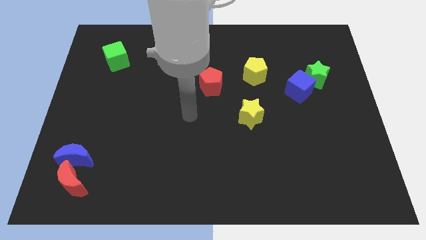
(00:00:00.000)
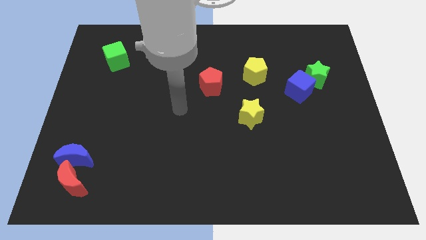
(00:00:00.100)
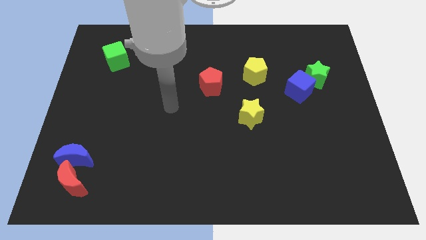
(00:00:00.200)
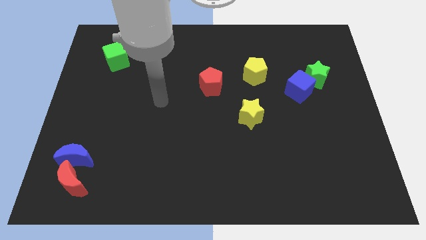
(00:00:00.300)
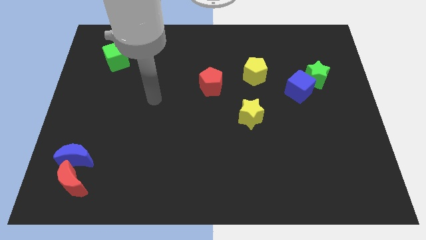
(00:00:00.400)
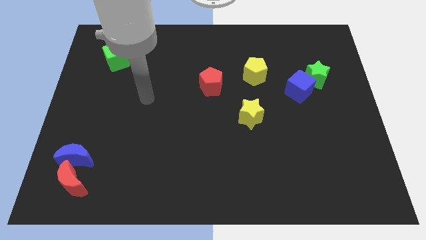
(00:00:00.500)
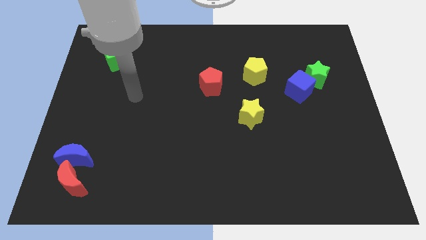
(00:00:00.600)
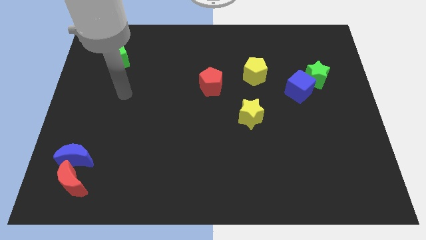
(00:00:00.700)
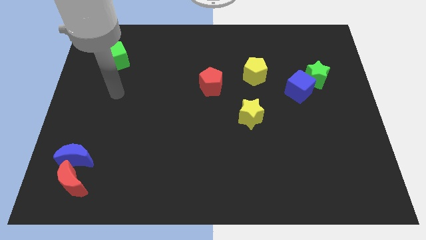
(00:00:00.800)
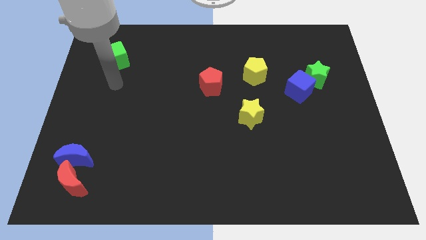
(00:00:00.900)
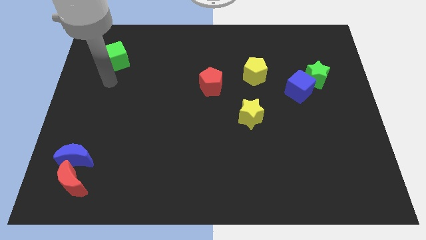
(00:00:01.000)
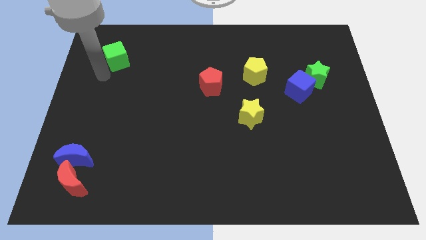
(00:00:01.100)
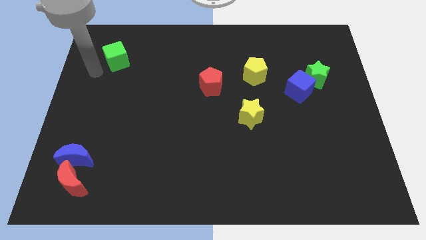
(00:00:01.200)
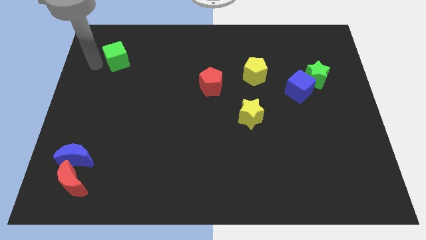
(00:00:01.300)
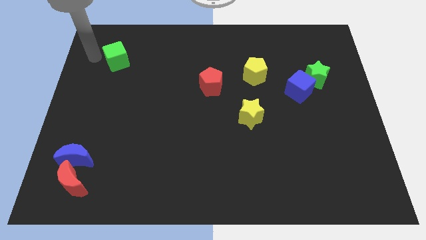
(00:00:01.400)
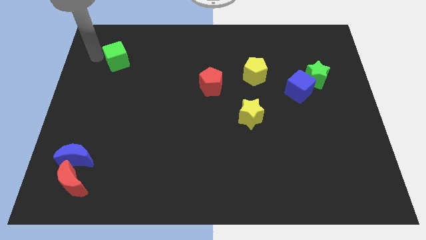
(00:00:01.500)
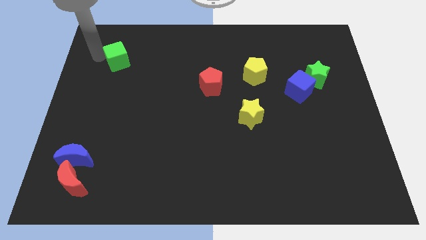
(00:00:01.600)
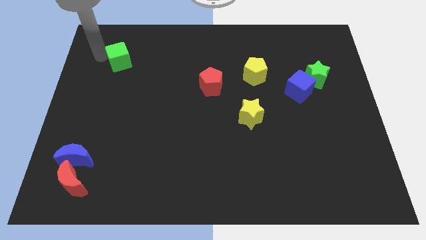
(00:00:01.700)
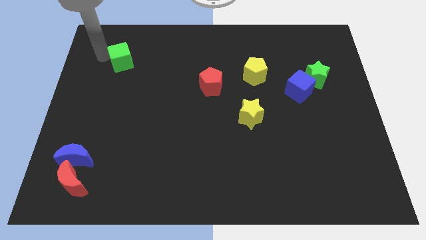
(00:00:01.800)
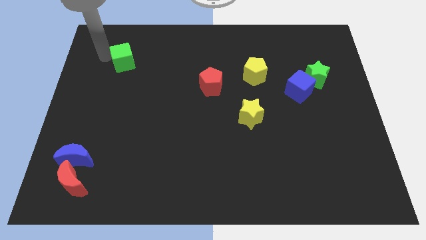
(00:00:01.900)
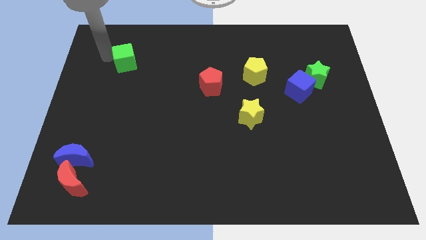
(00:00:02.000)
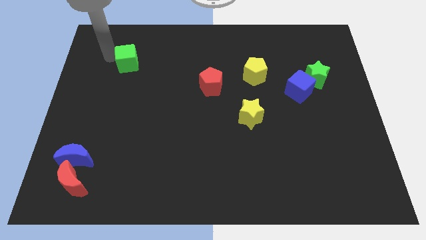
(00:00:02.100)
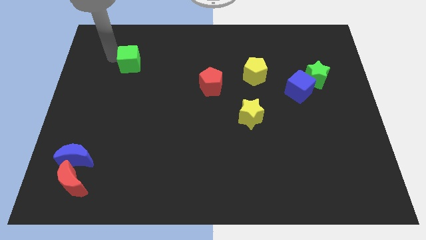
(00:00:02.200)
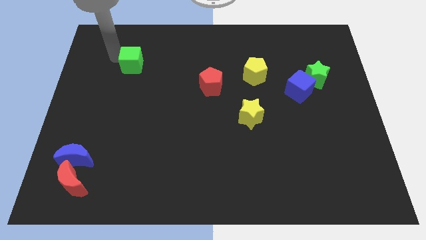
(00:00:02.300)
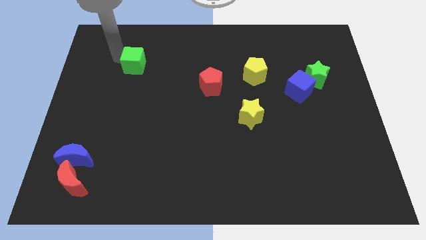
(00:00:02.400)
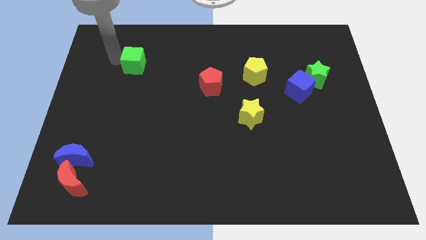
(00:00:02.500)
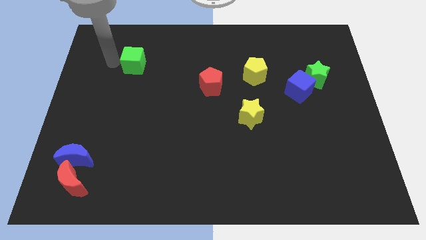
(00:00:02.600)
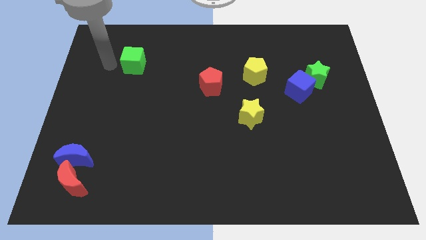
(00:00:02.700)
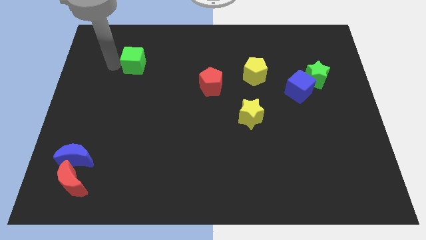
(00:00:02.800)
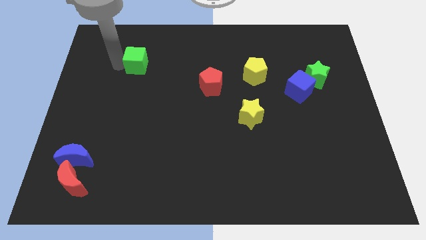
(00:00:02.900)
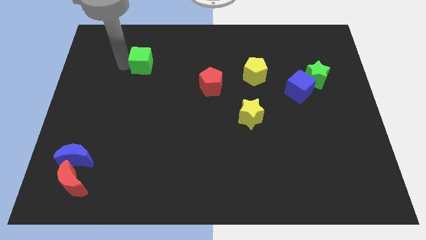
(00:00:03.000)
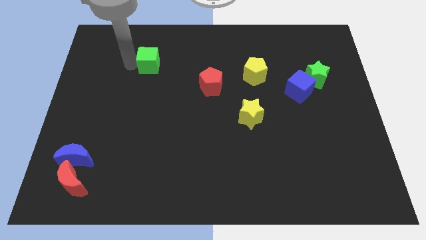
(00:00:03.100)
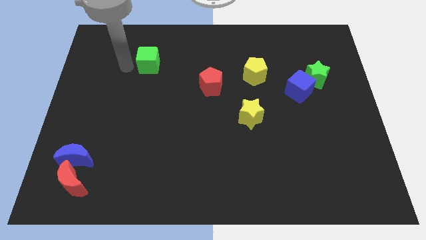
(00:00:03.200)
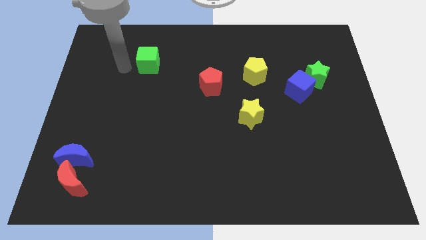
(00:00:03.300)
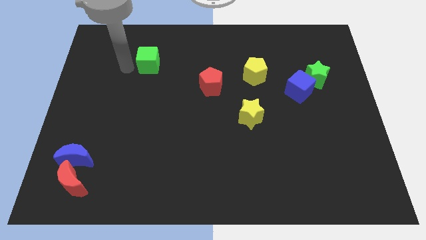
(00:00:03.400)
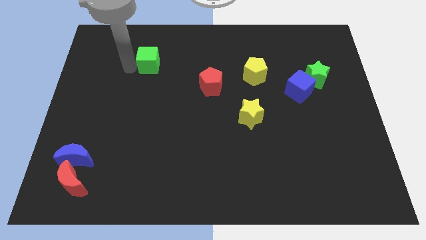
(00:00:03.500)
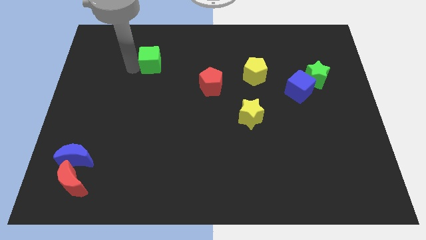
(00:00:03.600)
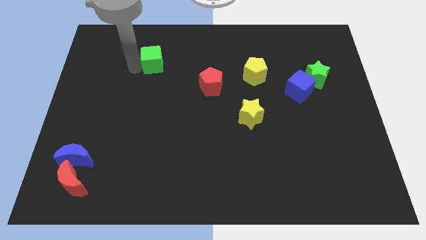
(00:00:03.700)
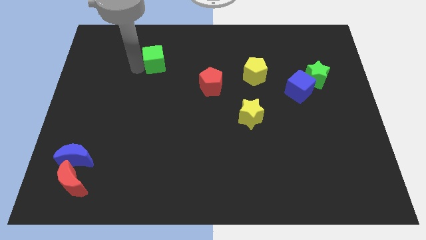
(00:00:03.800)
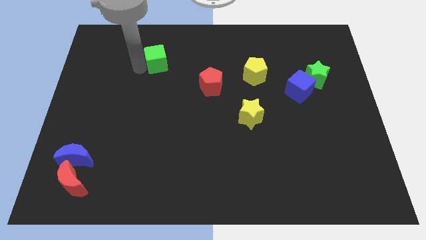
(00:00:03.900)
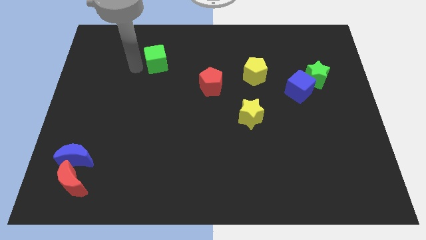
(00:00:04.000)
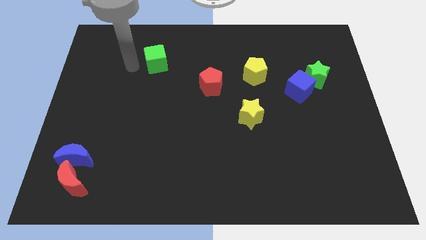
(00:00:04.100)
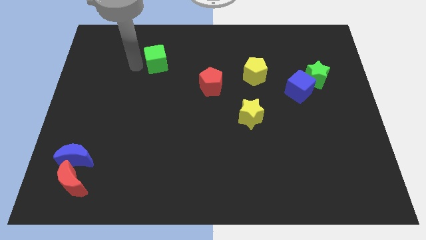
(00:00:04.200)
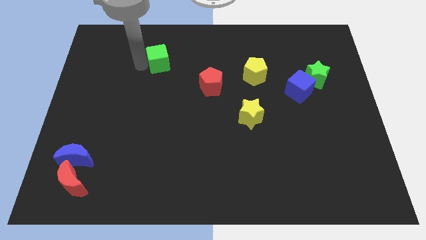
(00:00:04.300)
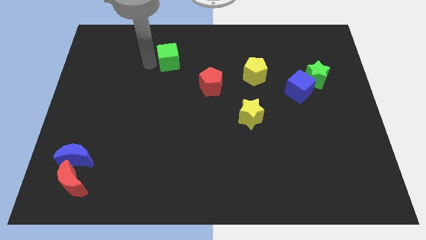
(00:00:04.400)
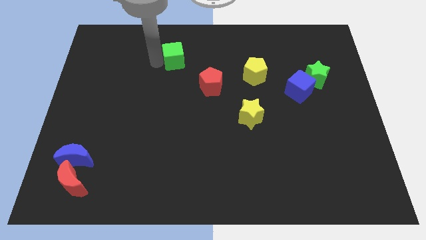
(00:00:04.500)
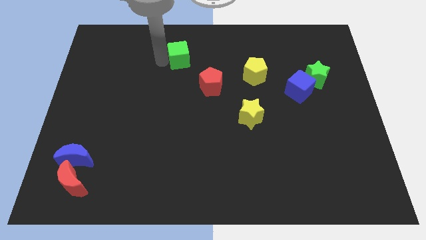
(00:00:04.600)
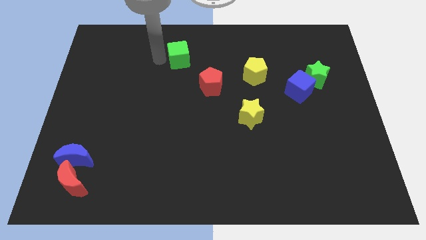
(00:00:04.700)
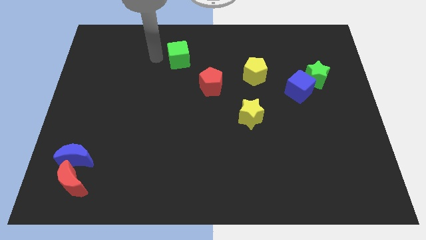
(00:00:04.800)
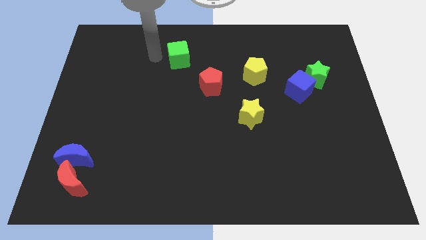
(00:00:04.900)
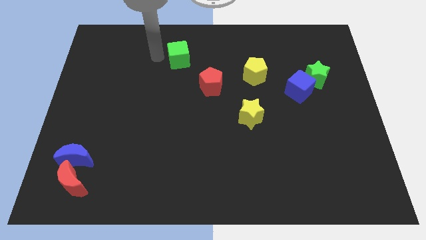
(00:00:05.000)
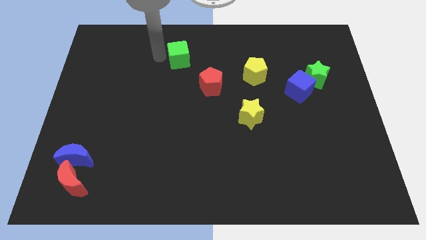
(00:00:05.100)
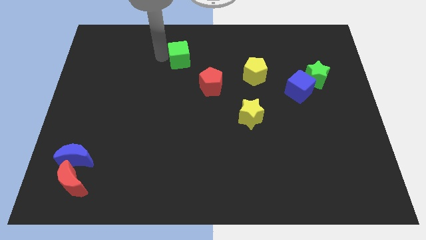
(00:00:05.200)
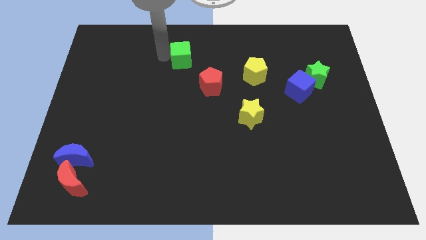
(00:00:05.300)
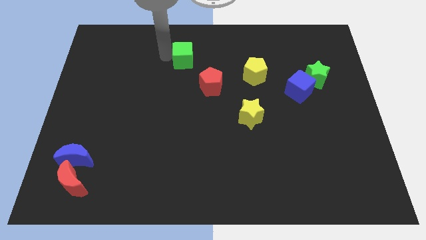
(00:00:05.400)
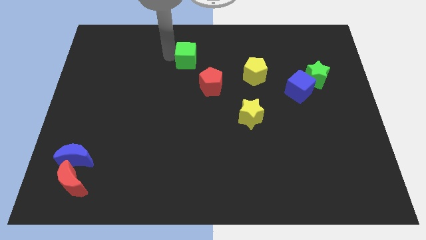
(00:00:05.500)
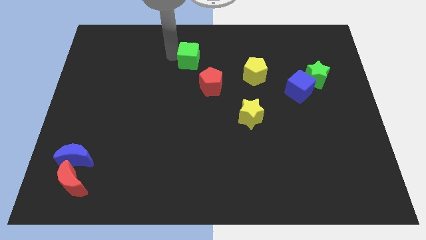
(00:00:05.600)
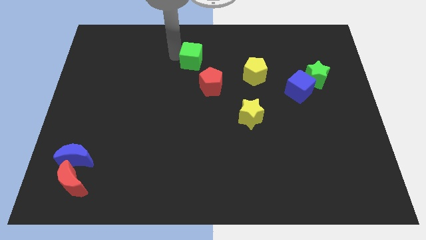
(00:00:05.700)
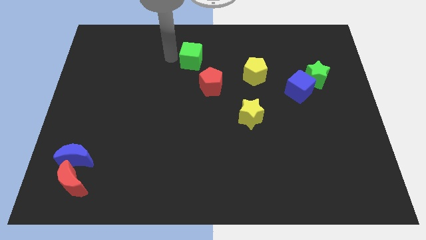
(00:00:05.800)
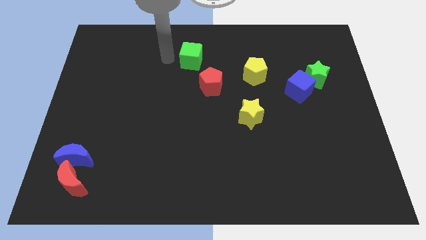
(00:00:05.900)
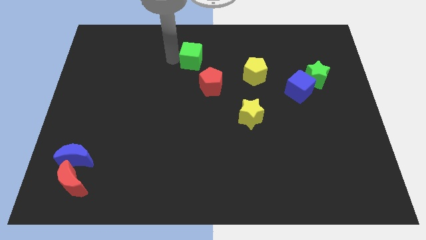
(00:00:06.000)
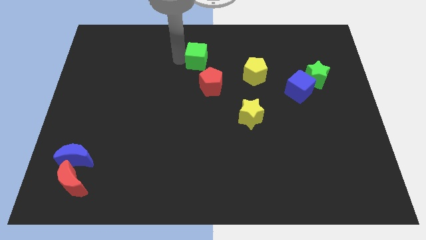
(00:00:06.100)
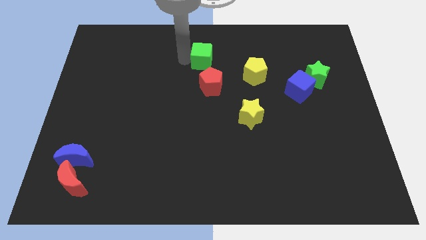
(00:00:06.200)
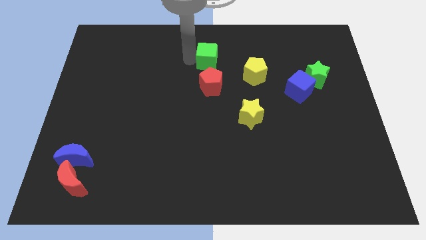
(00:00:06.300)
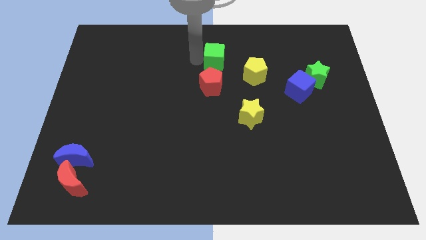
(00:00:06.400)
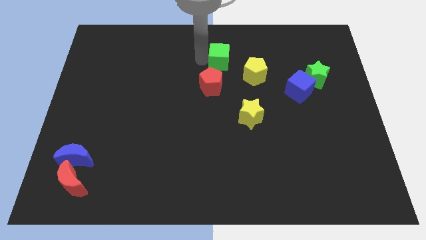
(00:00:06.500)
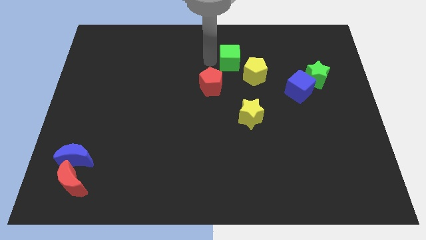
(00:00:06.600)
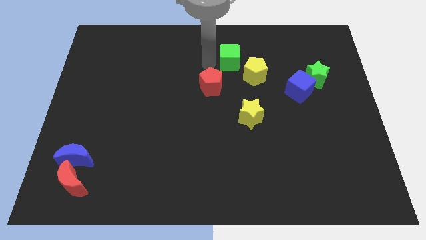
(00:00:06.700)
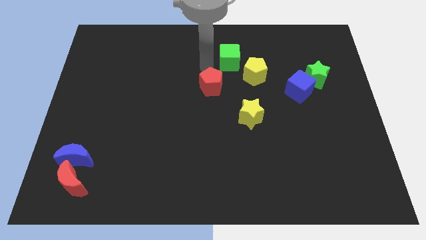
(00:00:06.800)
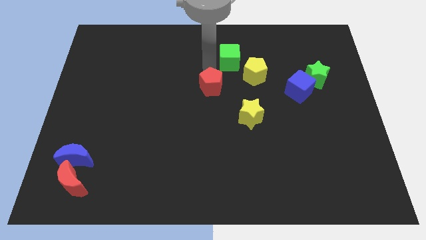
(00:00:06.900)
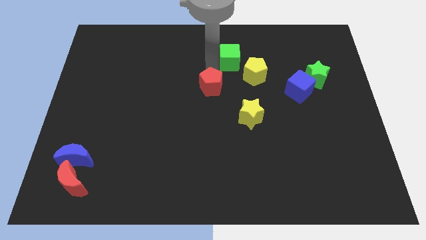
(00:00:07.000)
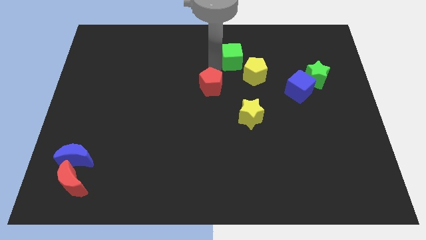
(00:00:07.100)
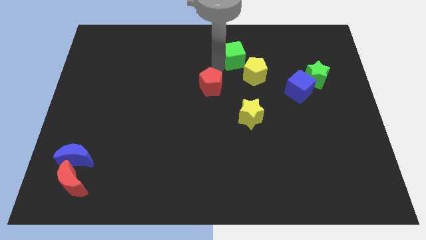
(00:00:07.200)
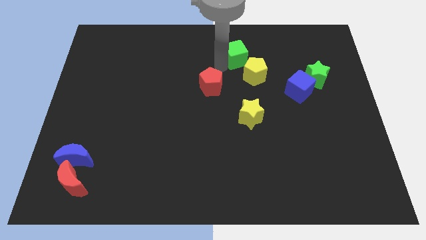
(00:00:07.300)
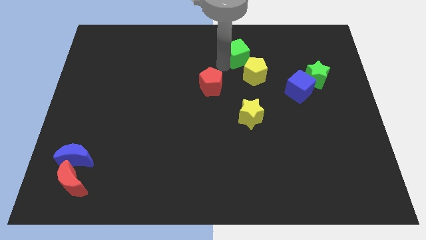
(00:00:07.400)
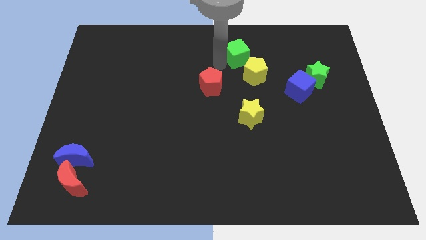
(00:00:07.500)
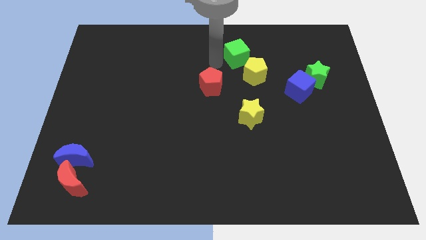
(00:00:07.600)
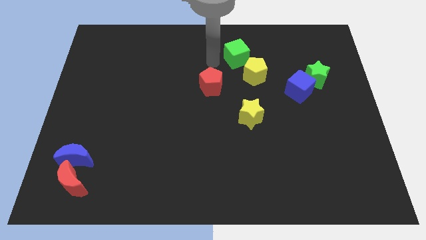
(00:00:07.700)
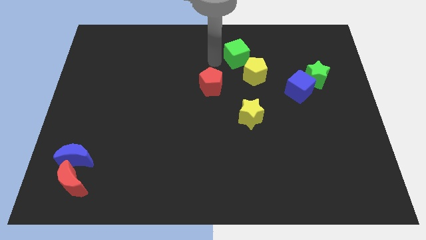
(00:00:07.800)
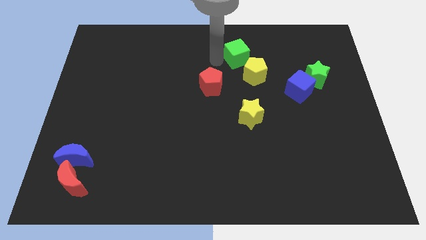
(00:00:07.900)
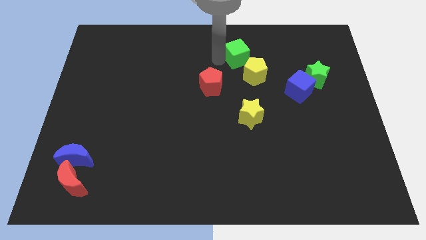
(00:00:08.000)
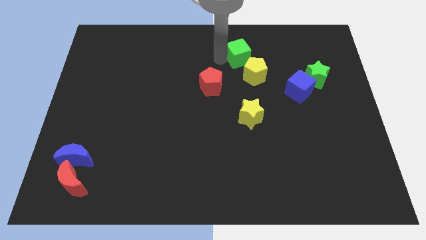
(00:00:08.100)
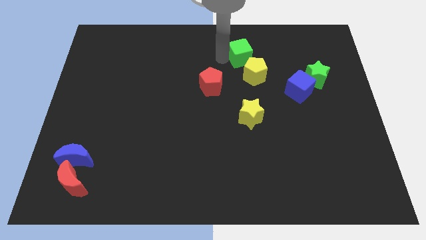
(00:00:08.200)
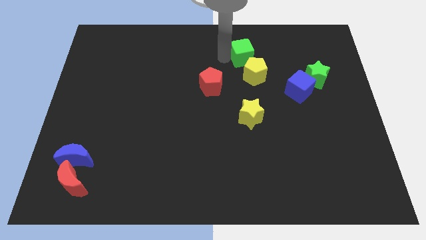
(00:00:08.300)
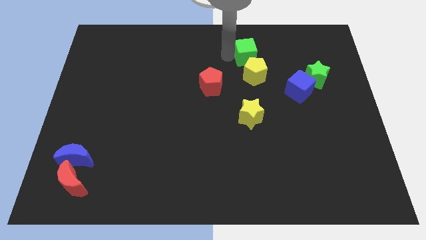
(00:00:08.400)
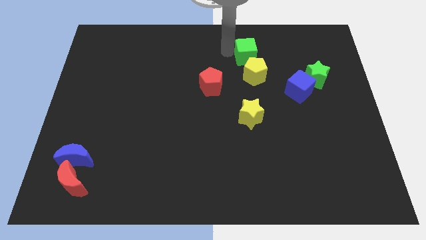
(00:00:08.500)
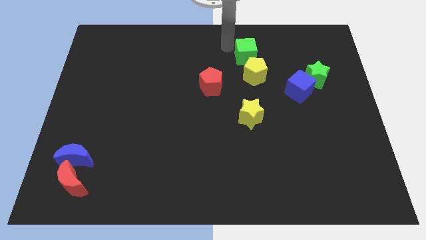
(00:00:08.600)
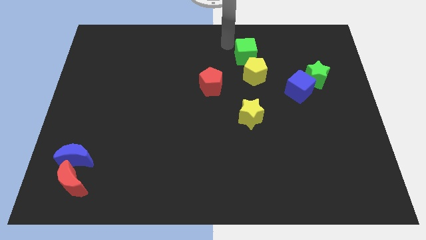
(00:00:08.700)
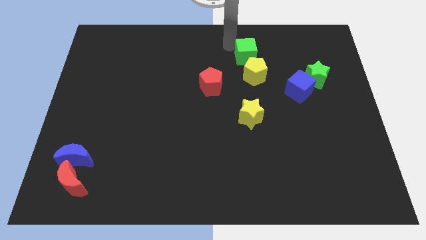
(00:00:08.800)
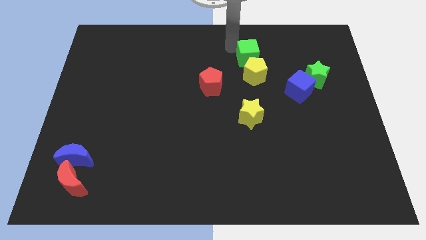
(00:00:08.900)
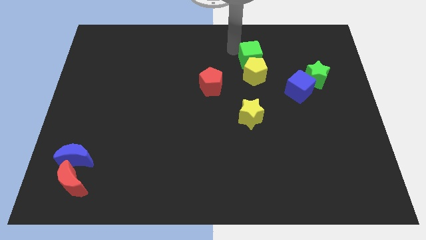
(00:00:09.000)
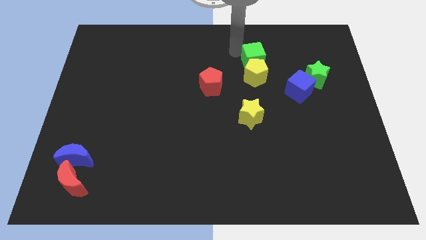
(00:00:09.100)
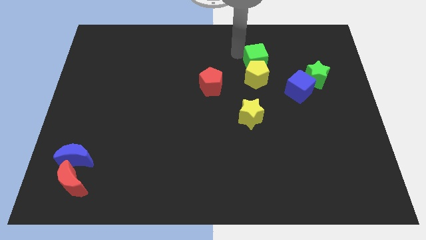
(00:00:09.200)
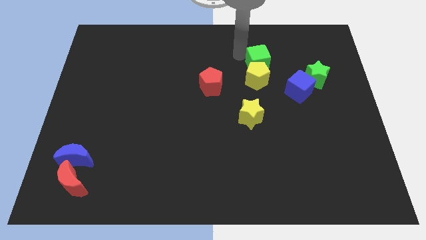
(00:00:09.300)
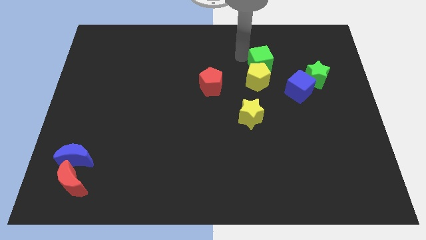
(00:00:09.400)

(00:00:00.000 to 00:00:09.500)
put the green cube diagonally up and to the left of the blue cube
